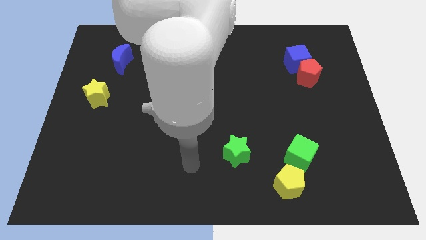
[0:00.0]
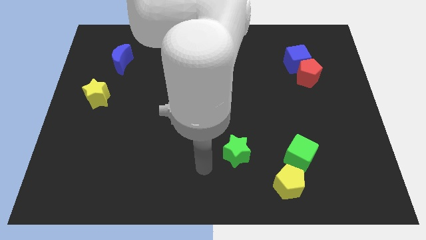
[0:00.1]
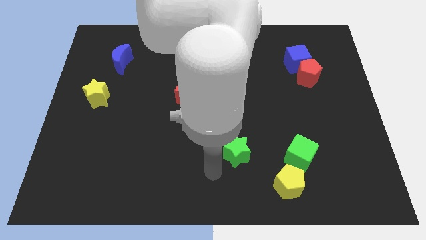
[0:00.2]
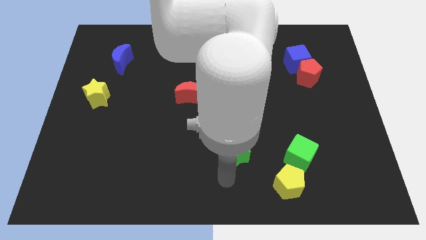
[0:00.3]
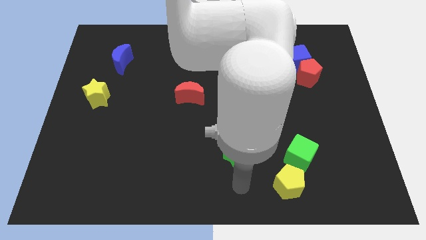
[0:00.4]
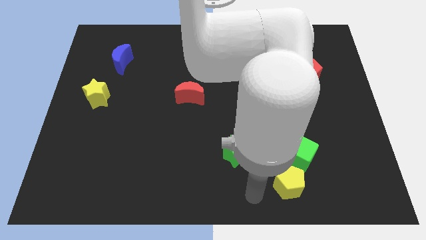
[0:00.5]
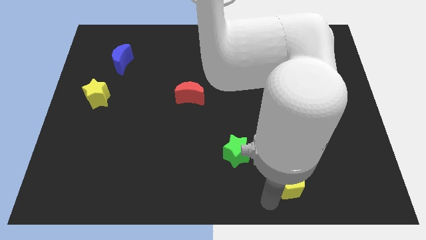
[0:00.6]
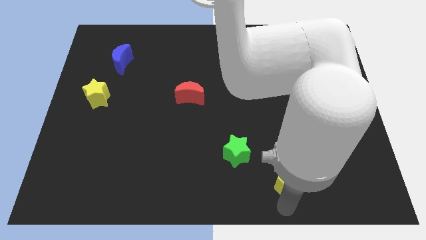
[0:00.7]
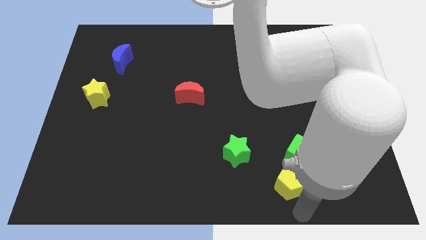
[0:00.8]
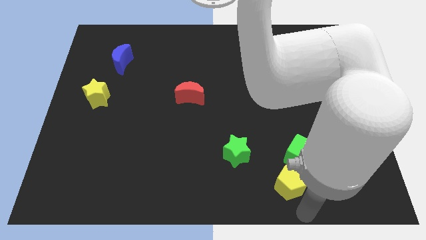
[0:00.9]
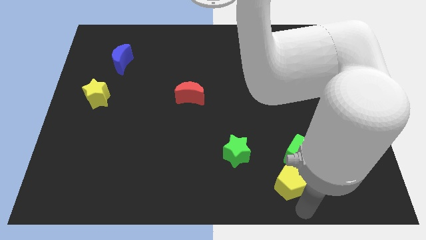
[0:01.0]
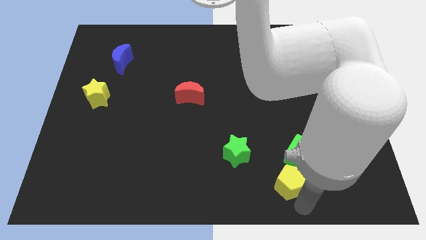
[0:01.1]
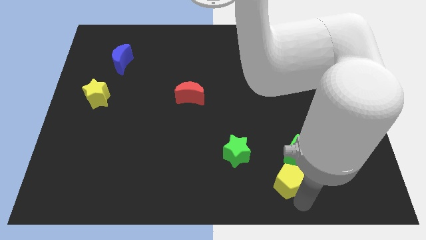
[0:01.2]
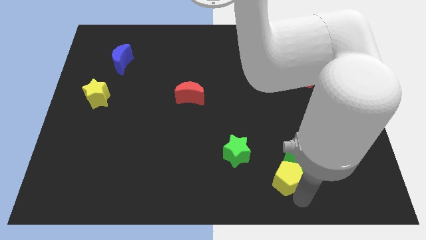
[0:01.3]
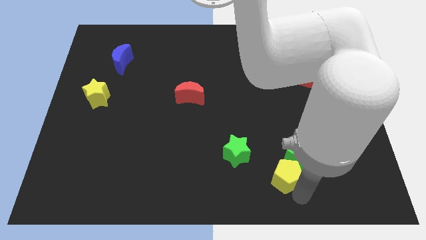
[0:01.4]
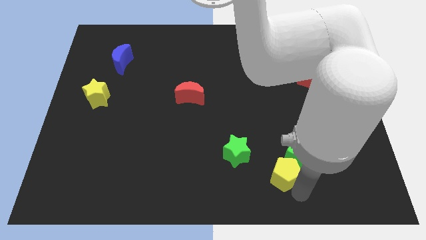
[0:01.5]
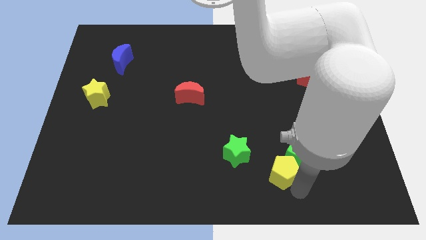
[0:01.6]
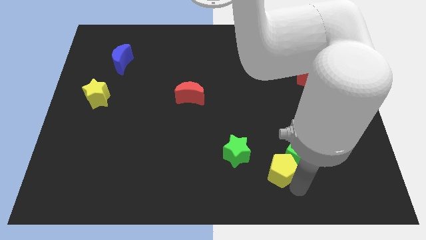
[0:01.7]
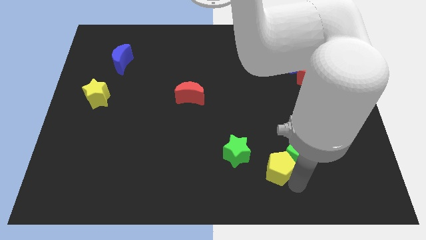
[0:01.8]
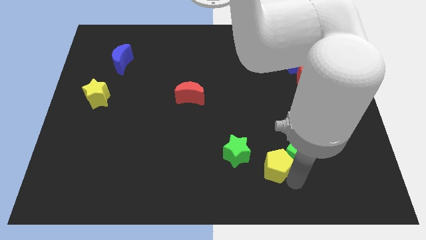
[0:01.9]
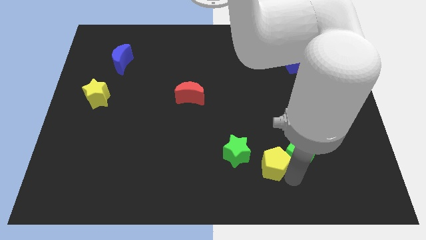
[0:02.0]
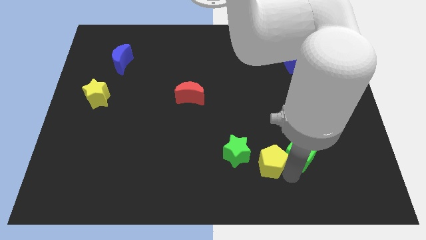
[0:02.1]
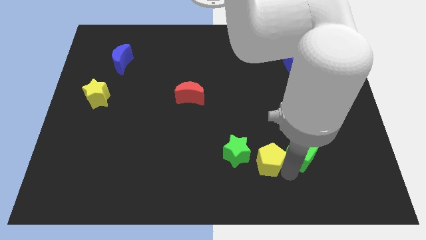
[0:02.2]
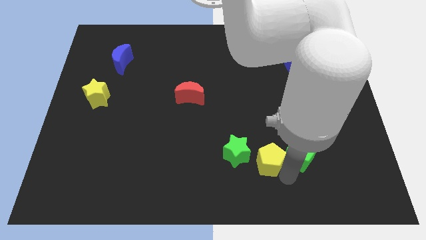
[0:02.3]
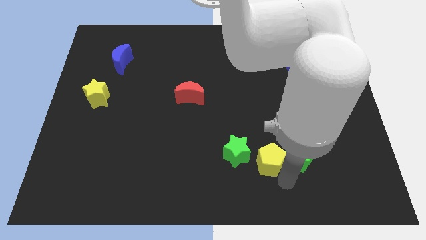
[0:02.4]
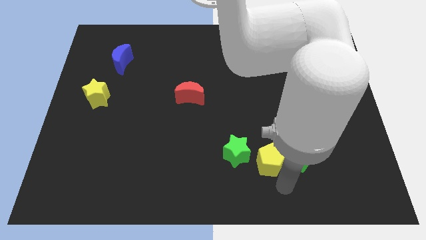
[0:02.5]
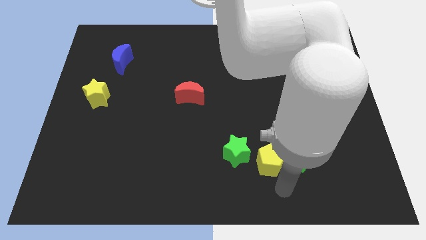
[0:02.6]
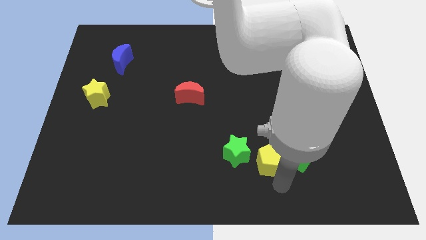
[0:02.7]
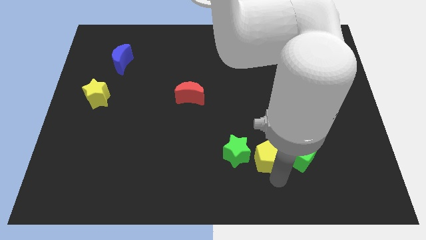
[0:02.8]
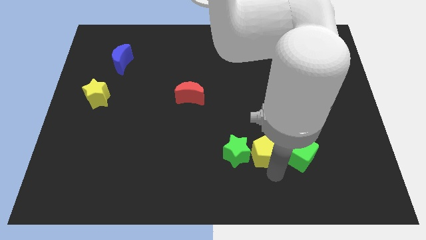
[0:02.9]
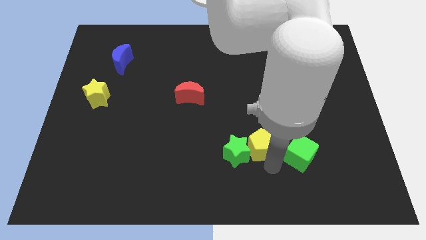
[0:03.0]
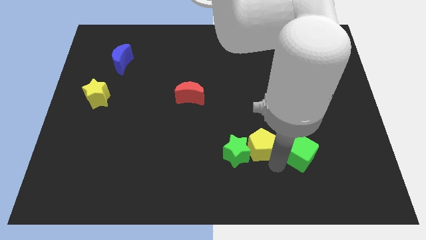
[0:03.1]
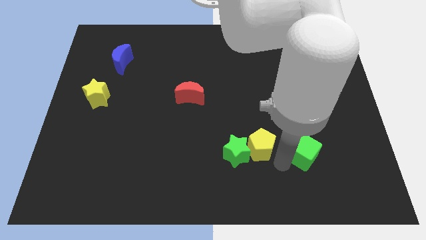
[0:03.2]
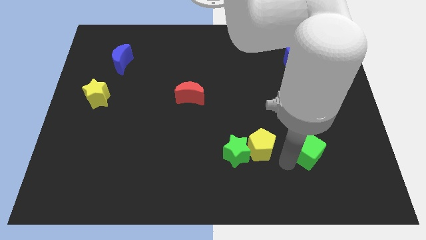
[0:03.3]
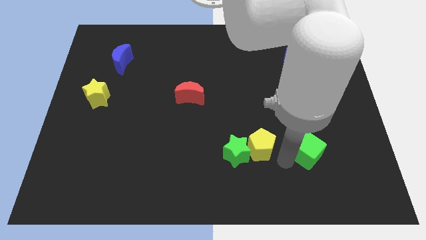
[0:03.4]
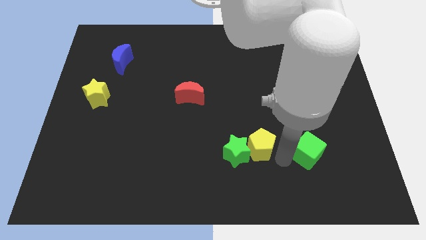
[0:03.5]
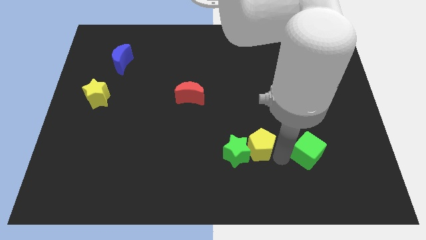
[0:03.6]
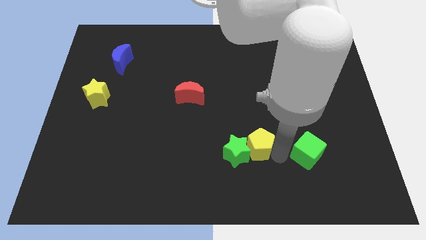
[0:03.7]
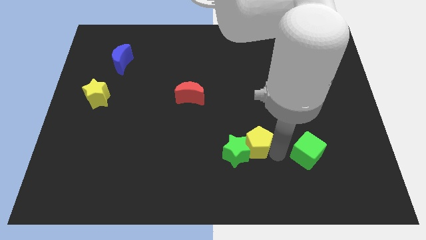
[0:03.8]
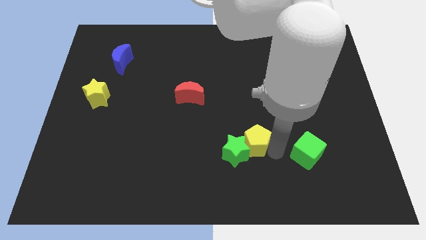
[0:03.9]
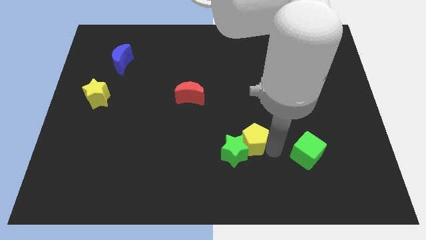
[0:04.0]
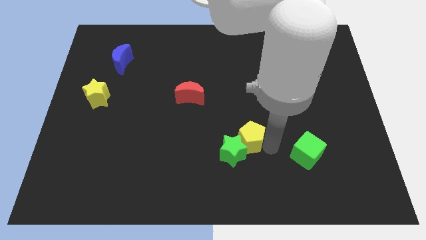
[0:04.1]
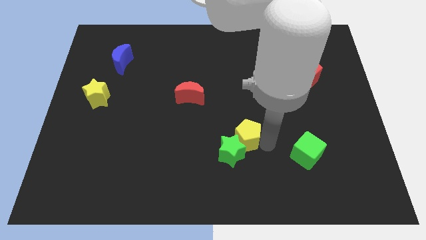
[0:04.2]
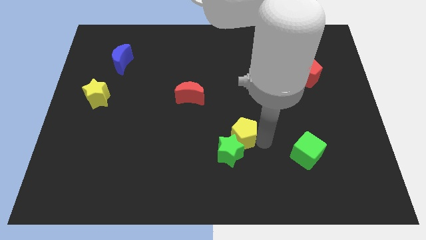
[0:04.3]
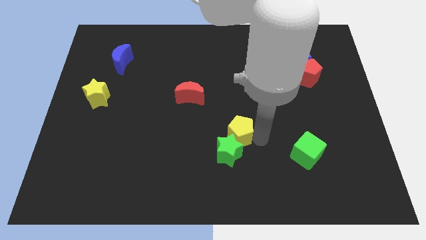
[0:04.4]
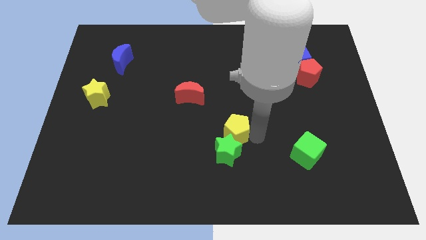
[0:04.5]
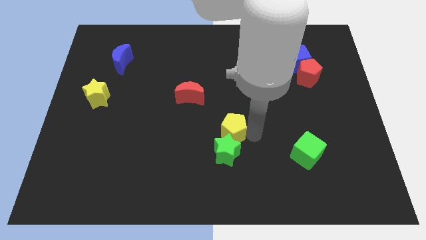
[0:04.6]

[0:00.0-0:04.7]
move the yellow pentagon to the top left of the green star

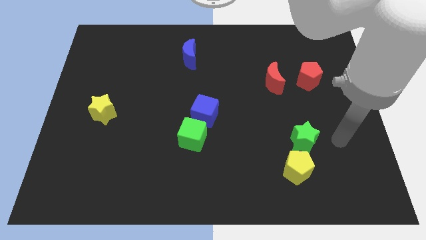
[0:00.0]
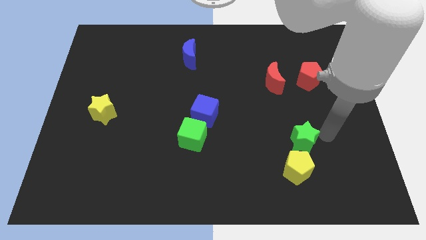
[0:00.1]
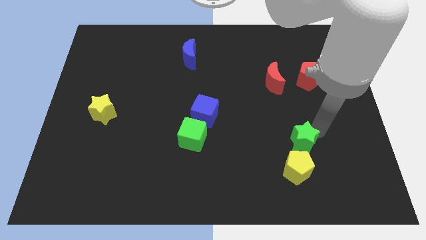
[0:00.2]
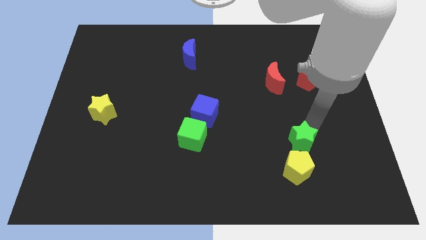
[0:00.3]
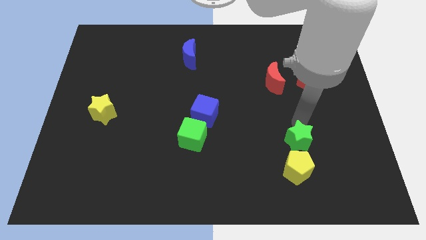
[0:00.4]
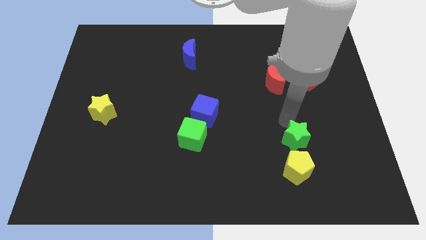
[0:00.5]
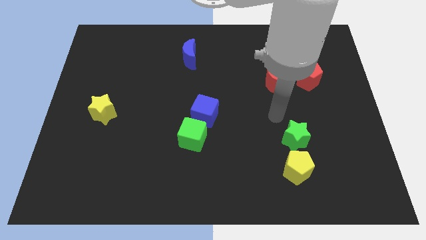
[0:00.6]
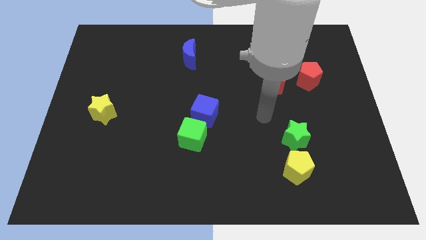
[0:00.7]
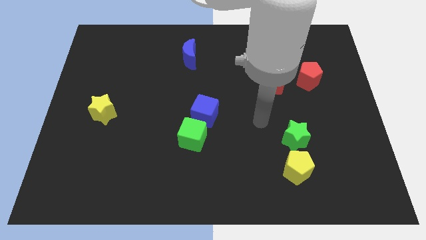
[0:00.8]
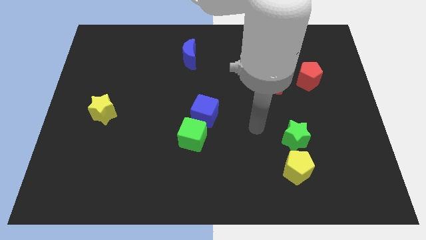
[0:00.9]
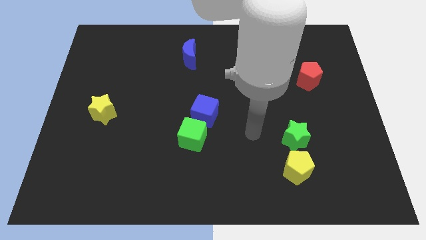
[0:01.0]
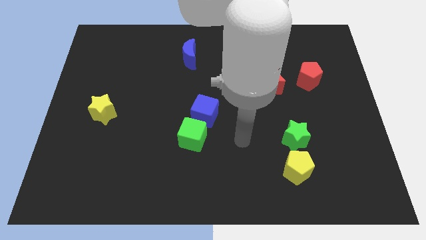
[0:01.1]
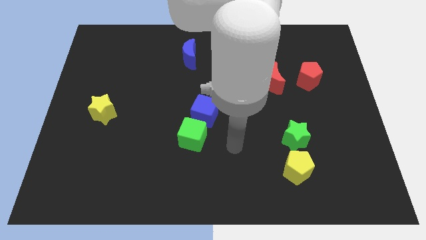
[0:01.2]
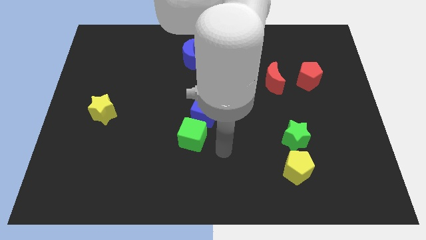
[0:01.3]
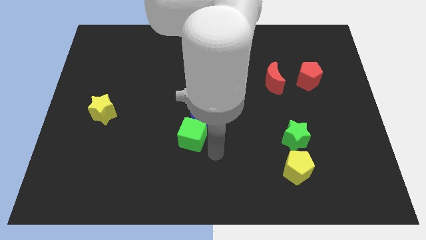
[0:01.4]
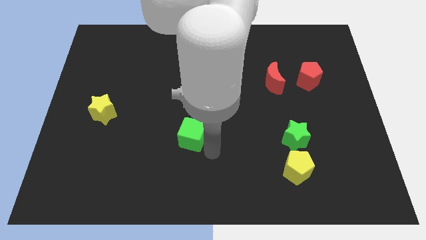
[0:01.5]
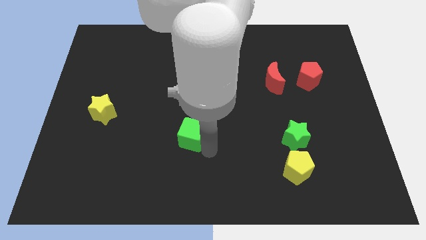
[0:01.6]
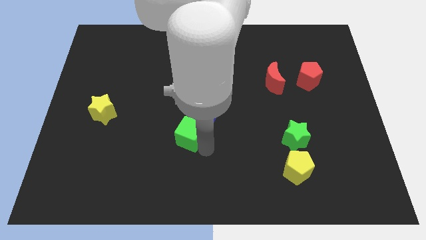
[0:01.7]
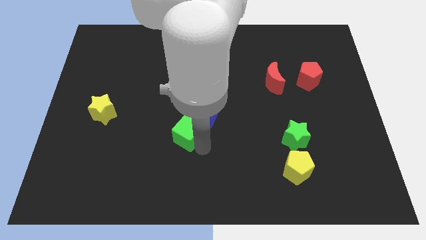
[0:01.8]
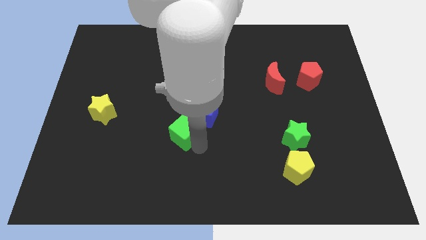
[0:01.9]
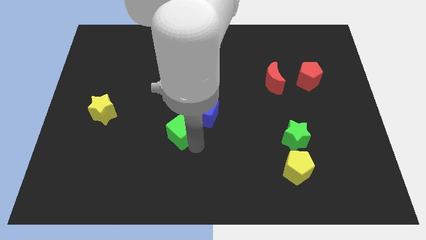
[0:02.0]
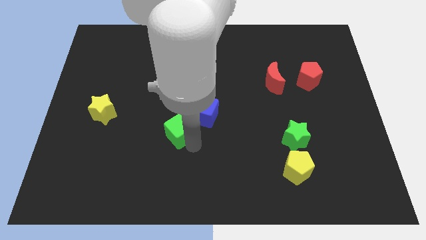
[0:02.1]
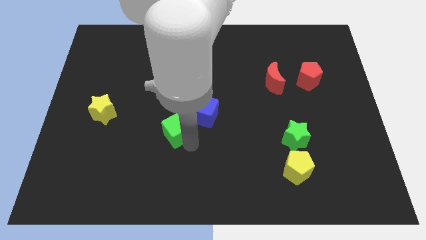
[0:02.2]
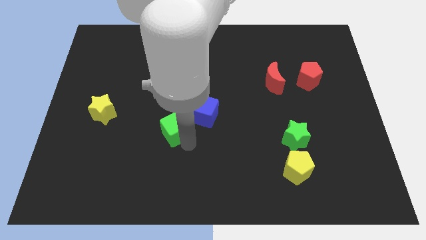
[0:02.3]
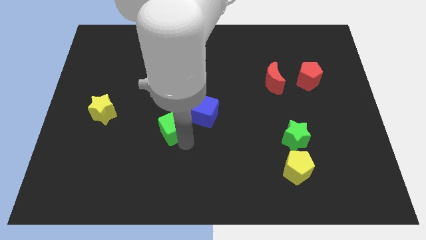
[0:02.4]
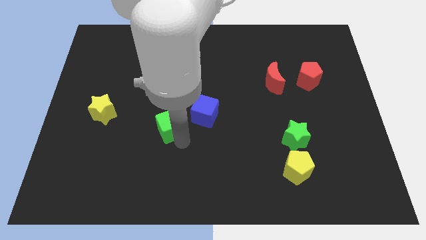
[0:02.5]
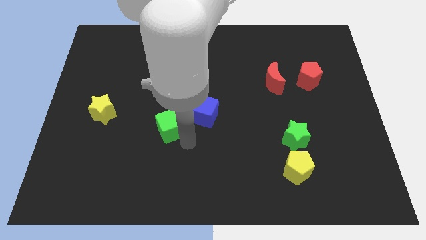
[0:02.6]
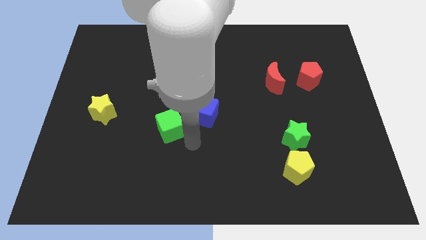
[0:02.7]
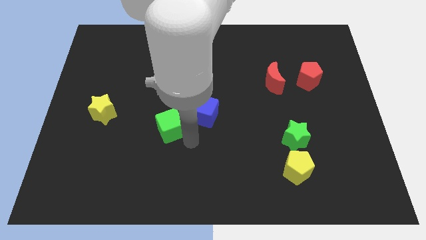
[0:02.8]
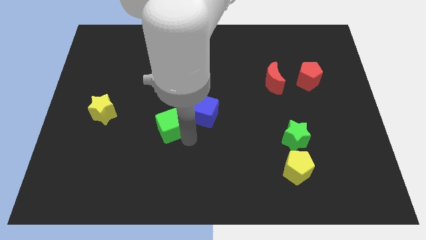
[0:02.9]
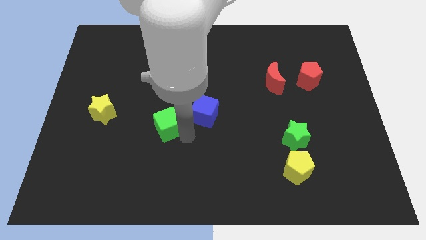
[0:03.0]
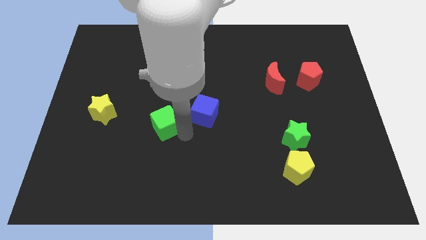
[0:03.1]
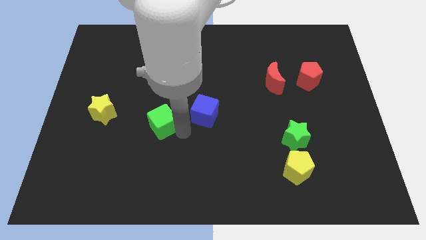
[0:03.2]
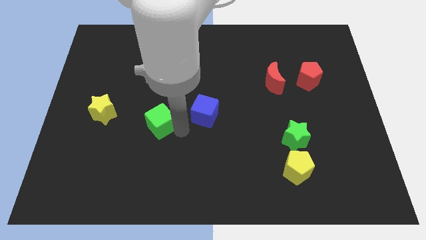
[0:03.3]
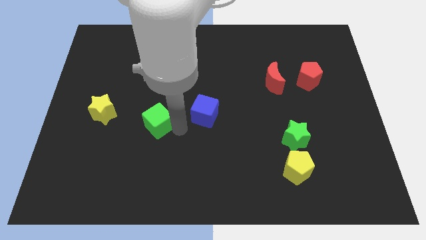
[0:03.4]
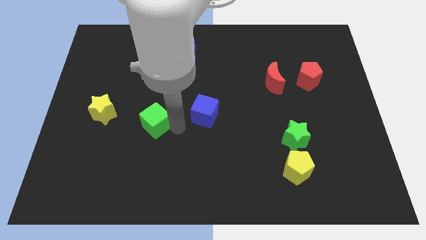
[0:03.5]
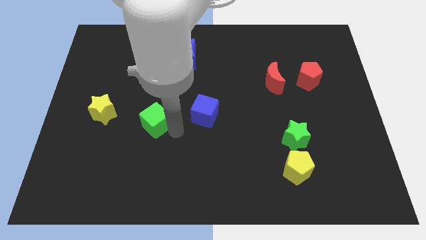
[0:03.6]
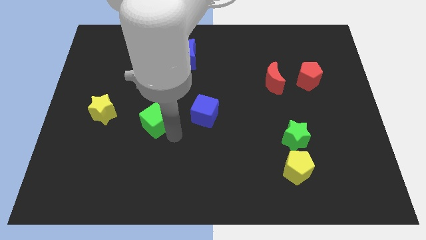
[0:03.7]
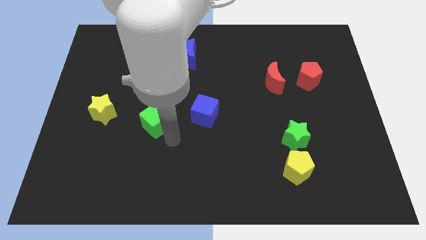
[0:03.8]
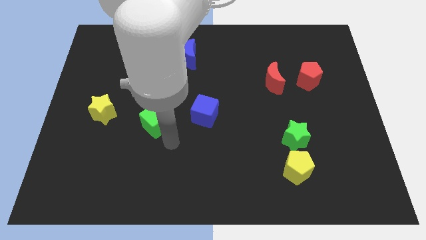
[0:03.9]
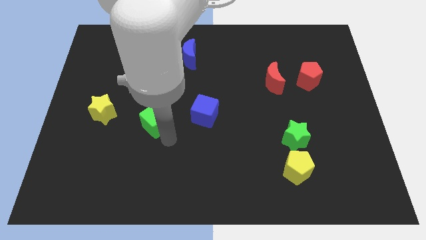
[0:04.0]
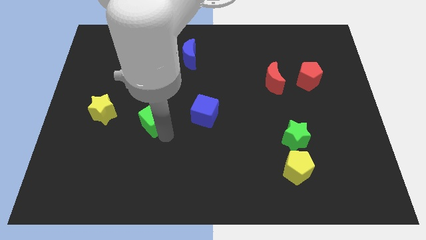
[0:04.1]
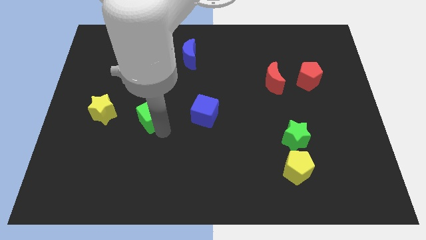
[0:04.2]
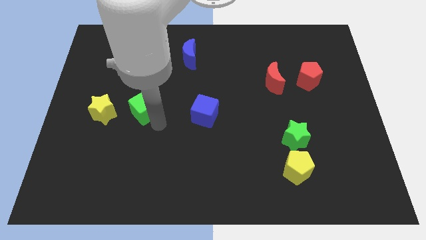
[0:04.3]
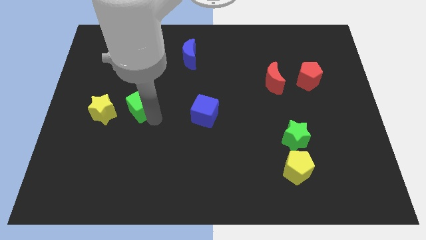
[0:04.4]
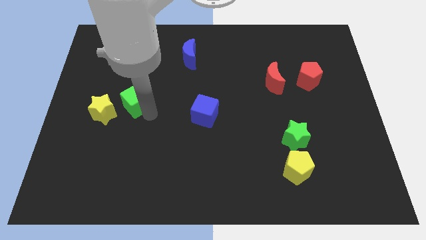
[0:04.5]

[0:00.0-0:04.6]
put the green cube to the top right of the yellow star
